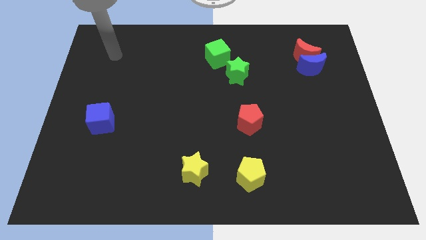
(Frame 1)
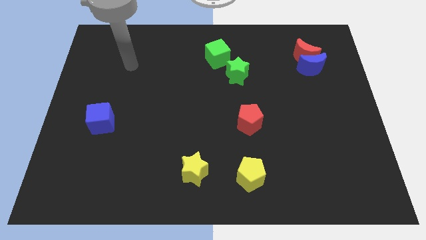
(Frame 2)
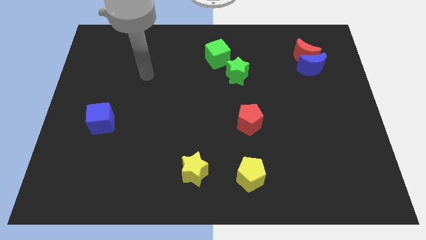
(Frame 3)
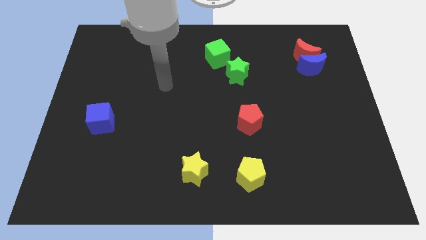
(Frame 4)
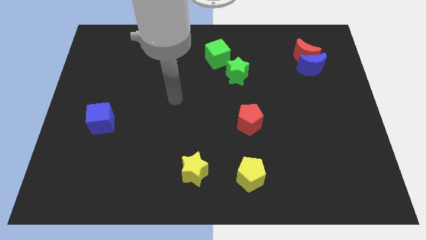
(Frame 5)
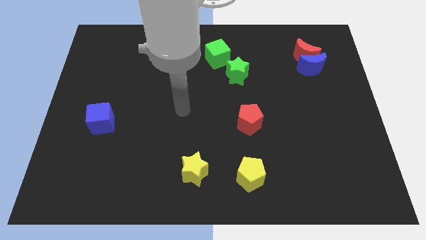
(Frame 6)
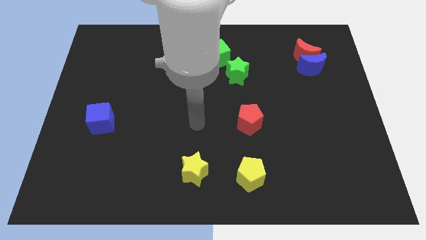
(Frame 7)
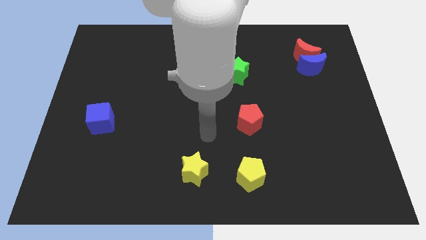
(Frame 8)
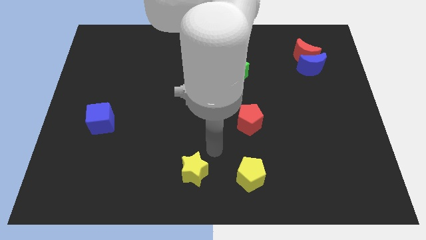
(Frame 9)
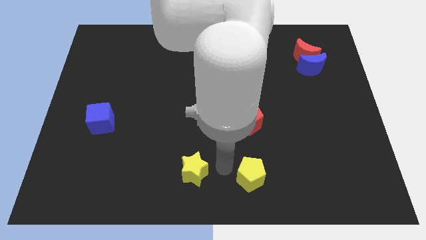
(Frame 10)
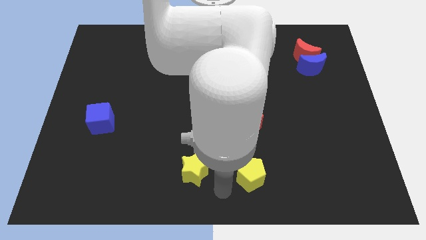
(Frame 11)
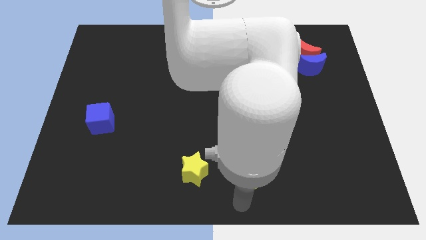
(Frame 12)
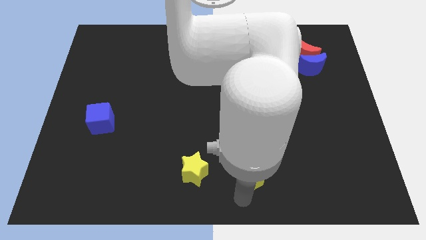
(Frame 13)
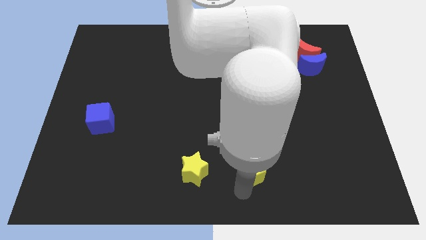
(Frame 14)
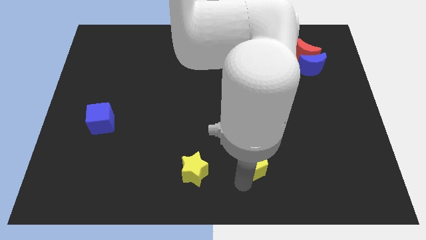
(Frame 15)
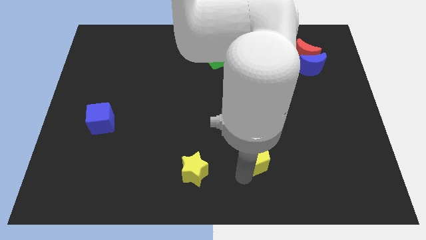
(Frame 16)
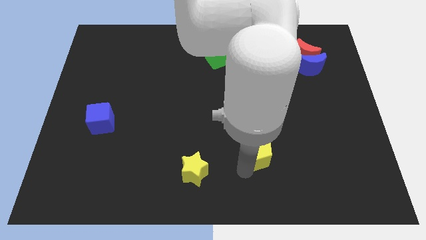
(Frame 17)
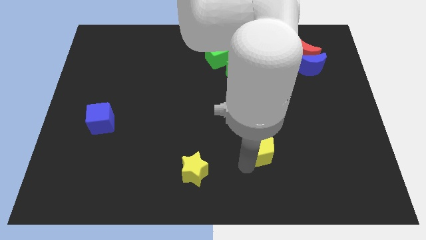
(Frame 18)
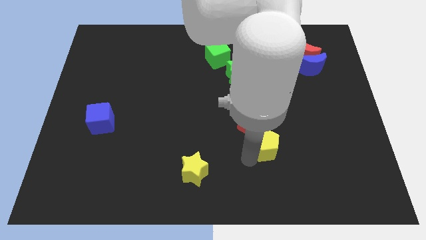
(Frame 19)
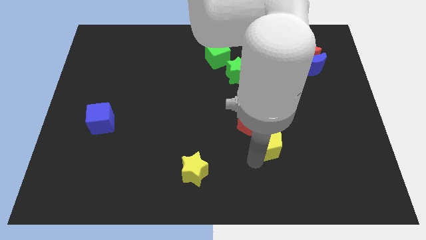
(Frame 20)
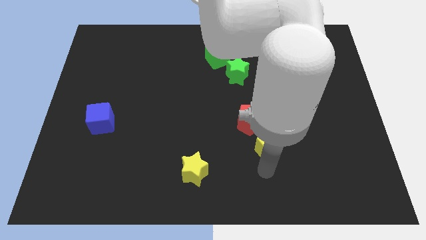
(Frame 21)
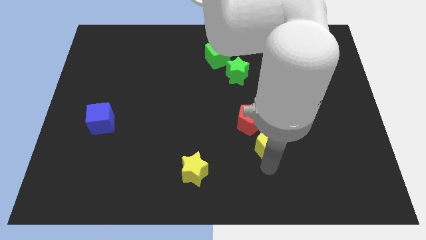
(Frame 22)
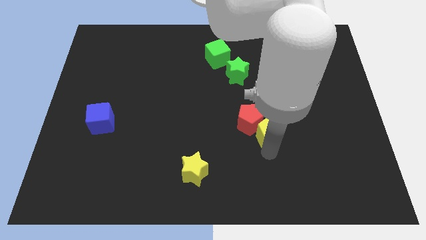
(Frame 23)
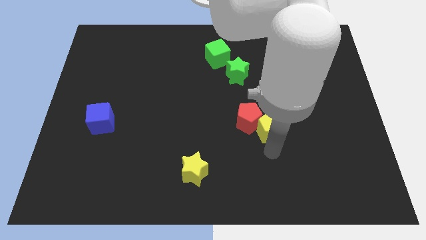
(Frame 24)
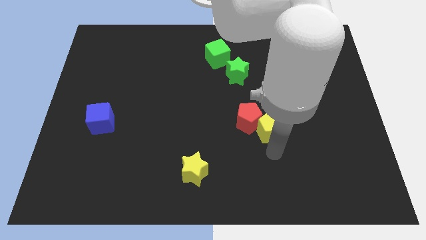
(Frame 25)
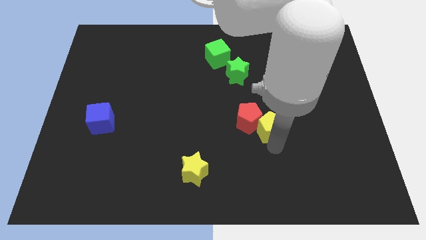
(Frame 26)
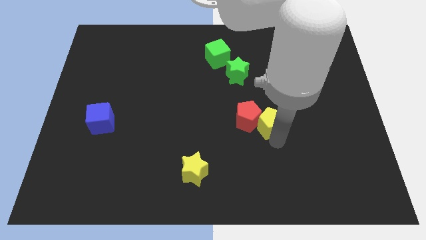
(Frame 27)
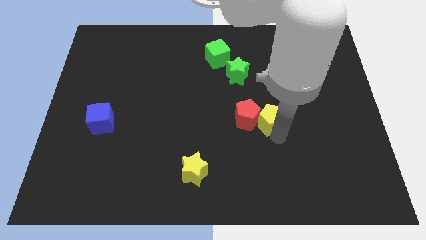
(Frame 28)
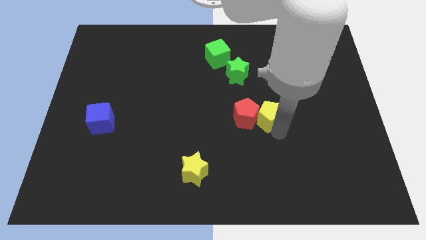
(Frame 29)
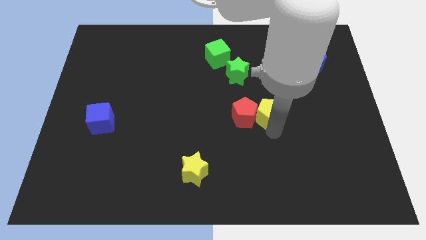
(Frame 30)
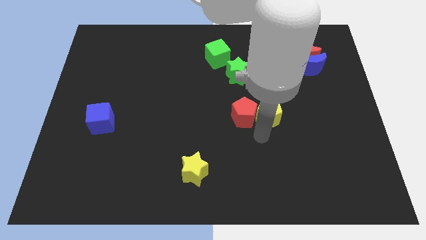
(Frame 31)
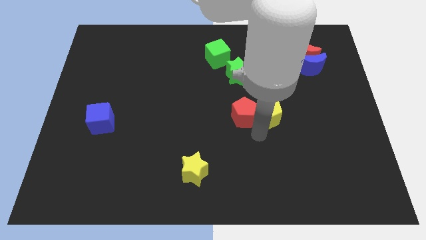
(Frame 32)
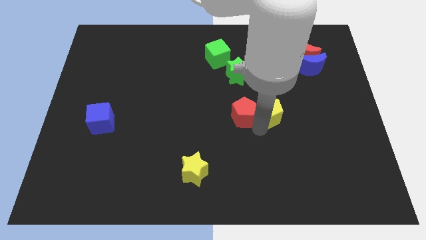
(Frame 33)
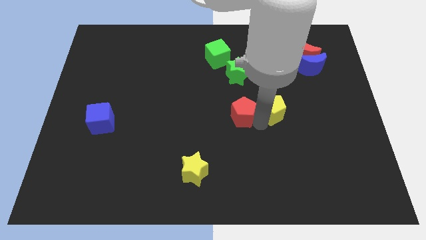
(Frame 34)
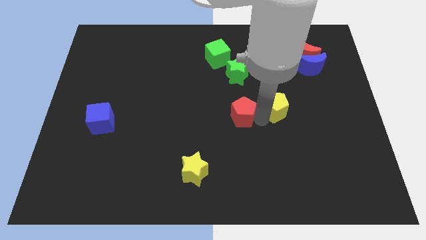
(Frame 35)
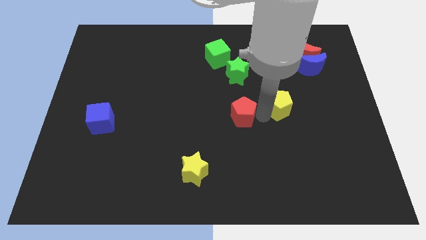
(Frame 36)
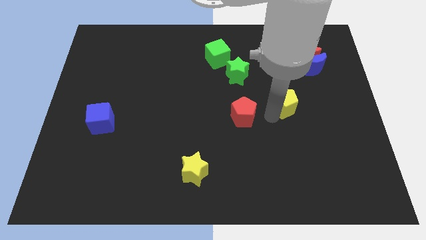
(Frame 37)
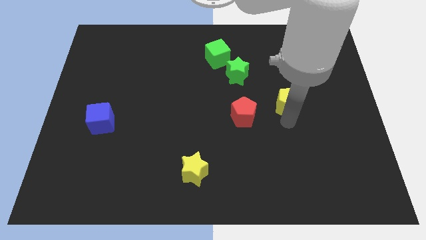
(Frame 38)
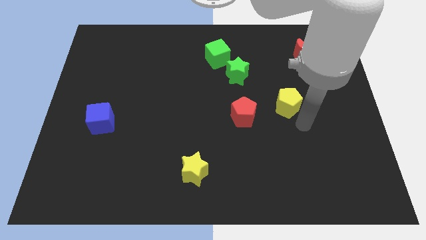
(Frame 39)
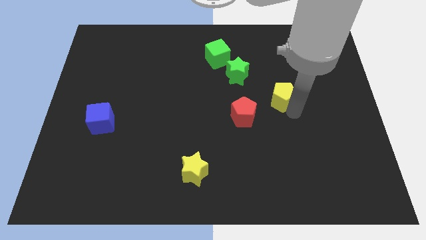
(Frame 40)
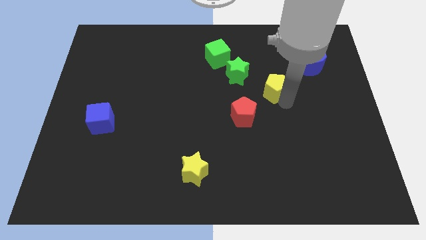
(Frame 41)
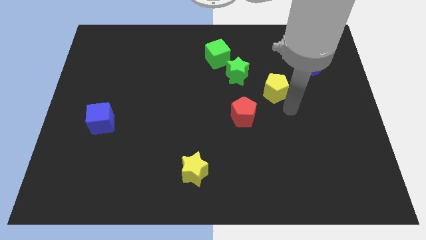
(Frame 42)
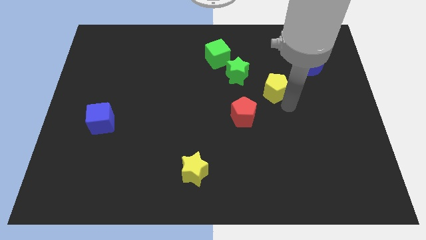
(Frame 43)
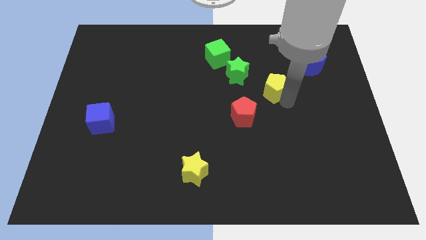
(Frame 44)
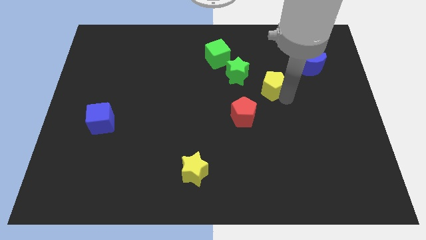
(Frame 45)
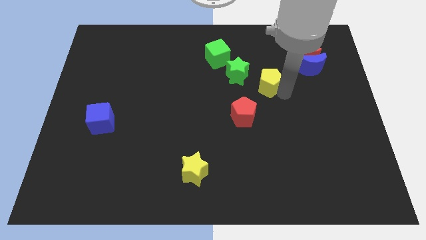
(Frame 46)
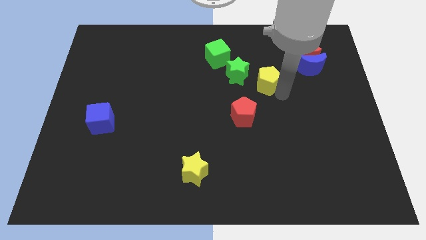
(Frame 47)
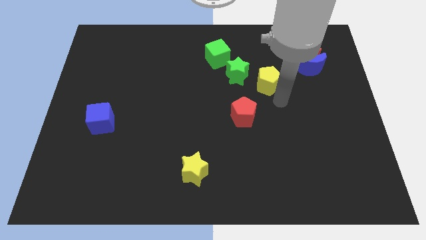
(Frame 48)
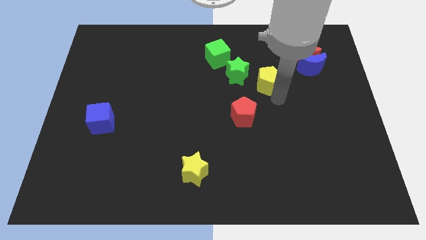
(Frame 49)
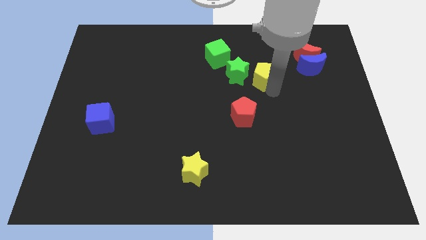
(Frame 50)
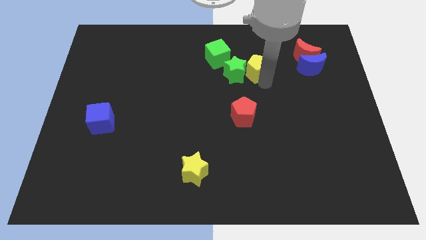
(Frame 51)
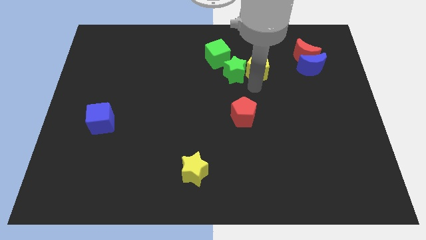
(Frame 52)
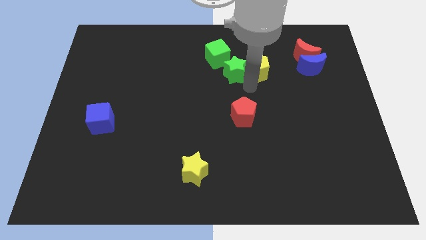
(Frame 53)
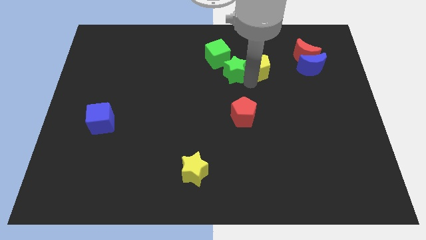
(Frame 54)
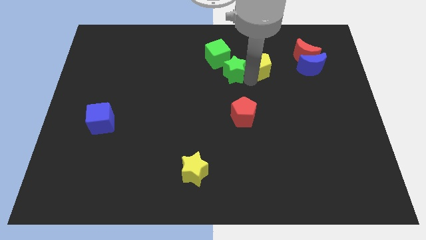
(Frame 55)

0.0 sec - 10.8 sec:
move the yellow pentagon to the left of the red moon

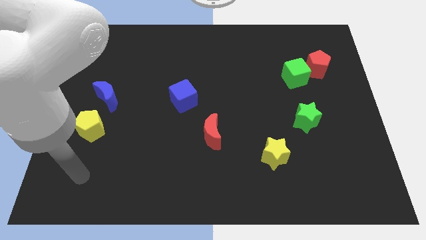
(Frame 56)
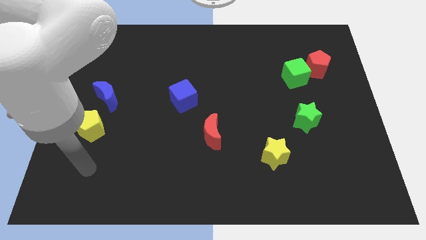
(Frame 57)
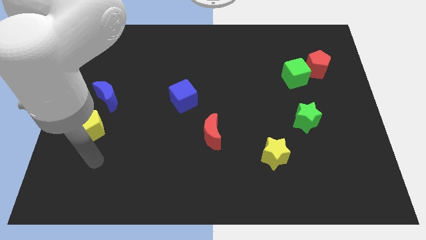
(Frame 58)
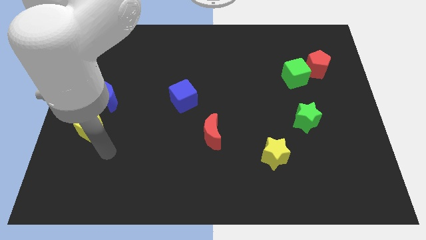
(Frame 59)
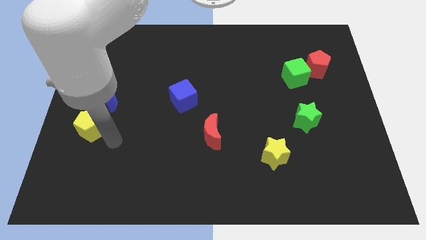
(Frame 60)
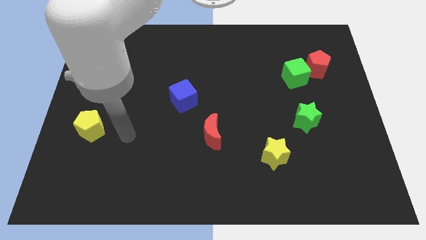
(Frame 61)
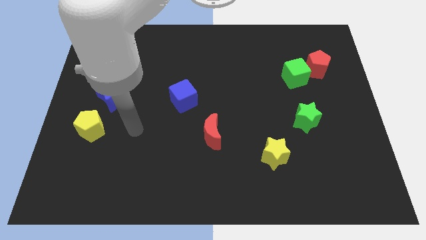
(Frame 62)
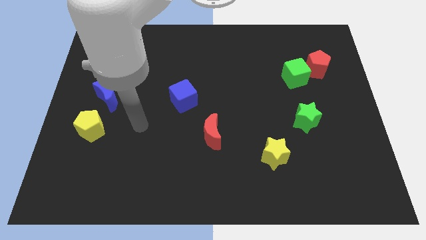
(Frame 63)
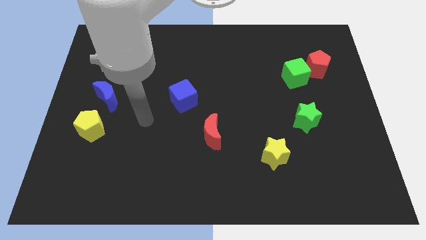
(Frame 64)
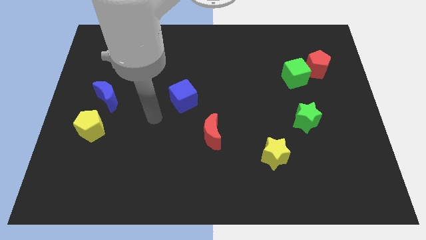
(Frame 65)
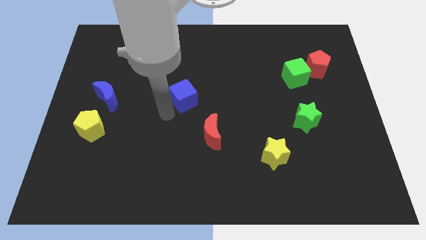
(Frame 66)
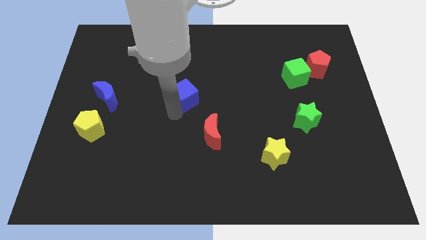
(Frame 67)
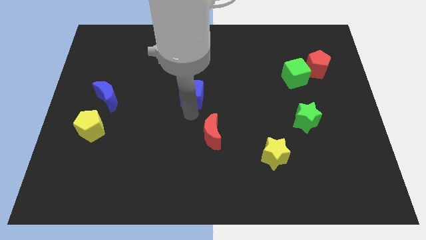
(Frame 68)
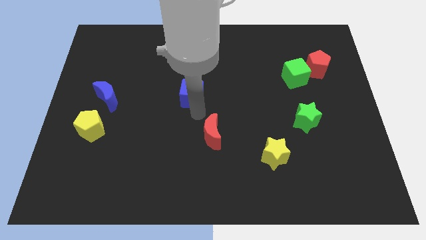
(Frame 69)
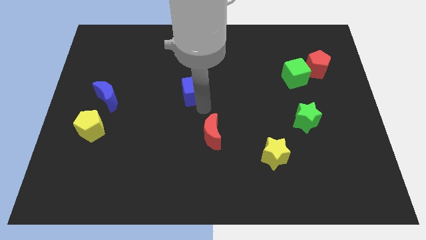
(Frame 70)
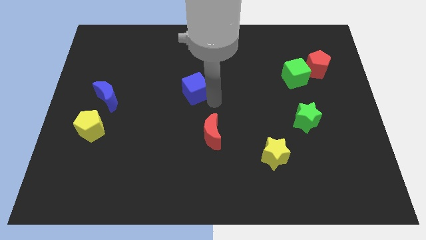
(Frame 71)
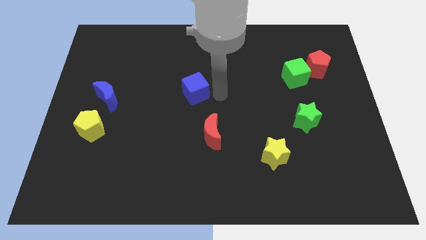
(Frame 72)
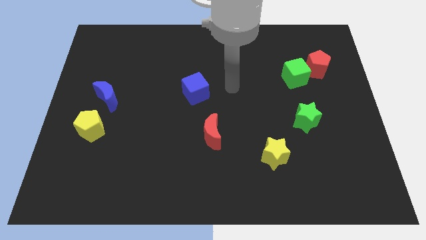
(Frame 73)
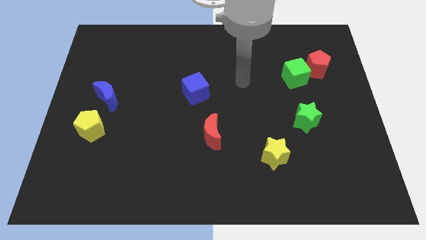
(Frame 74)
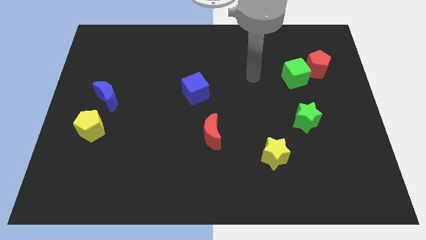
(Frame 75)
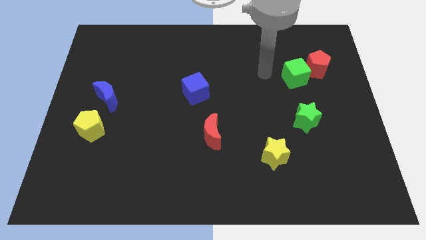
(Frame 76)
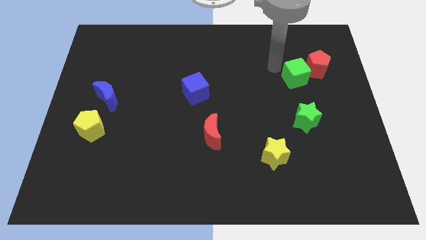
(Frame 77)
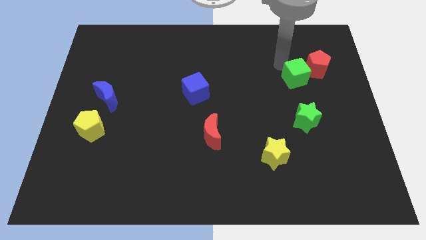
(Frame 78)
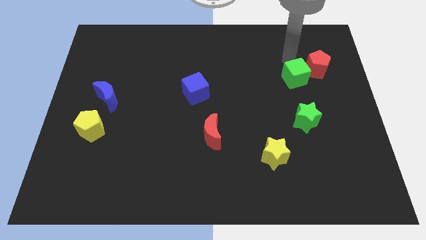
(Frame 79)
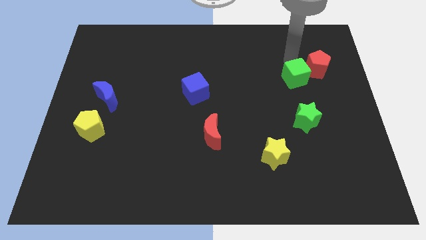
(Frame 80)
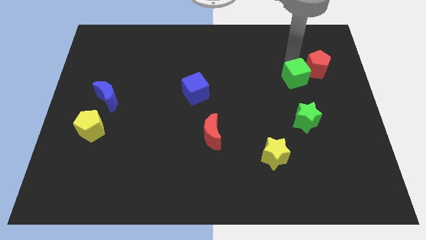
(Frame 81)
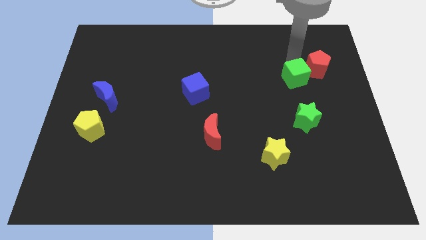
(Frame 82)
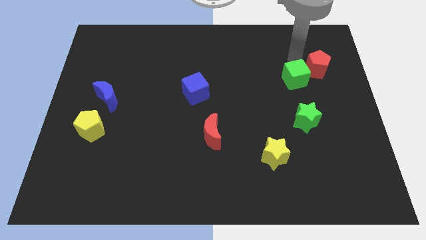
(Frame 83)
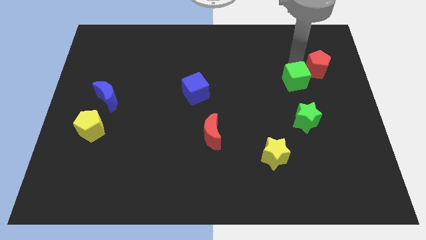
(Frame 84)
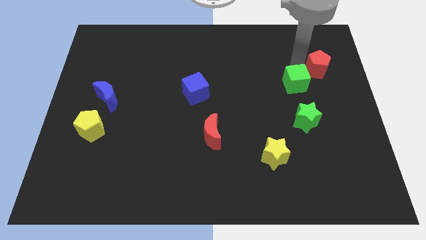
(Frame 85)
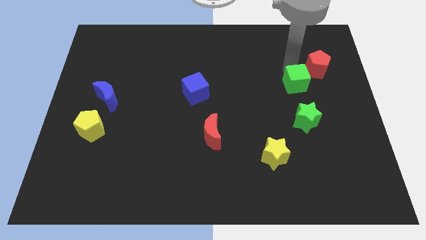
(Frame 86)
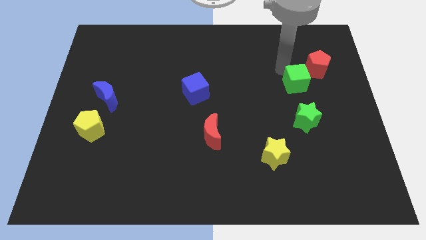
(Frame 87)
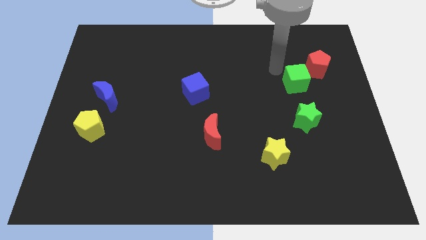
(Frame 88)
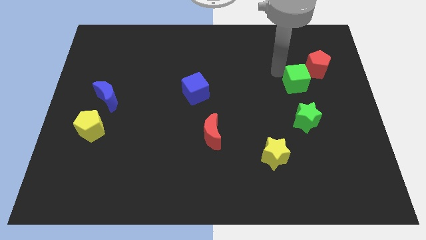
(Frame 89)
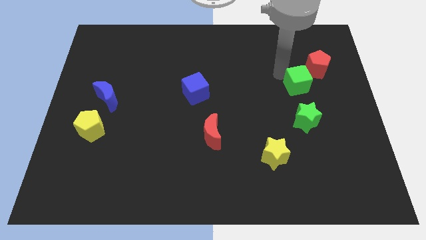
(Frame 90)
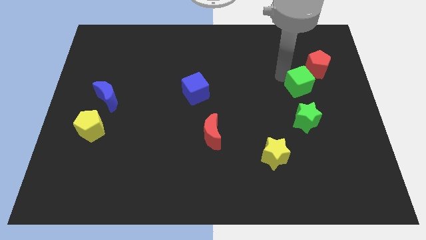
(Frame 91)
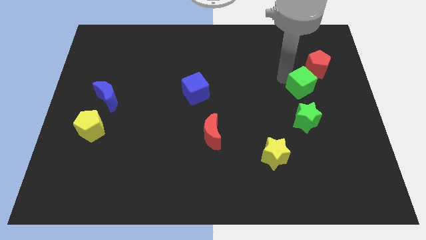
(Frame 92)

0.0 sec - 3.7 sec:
move the green cube below the red pentagon
